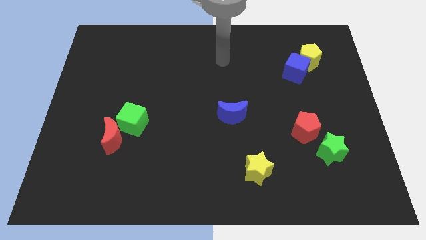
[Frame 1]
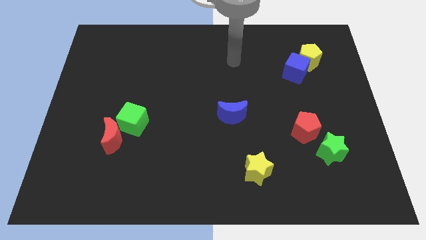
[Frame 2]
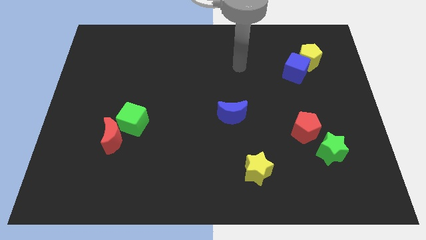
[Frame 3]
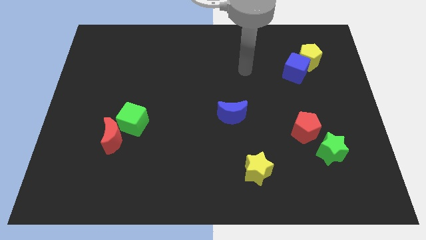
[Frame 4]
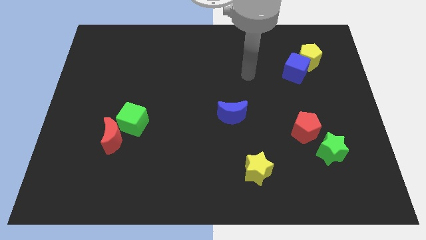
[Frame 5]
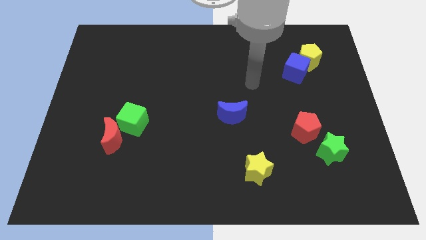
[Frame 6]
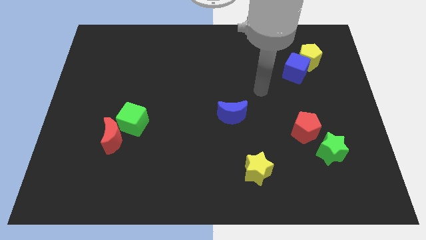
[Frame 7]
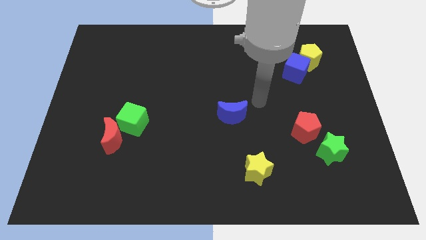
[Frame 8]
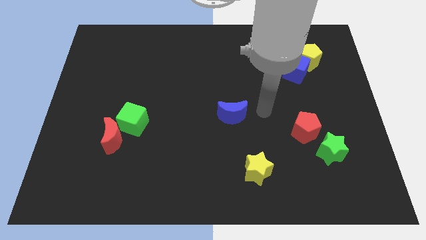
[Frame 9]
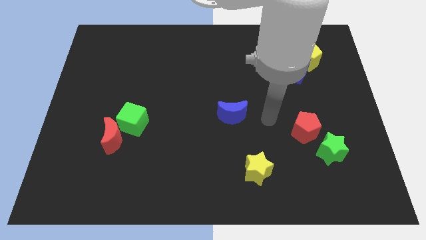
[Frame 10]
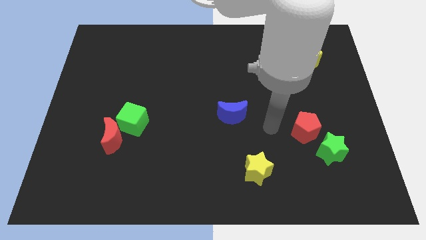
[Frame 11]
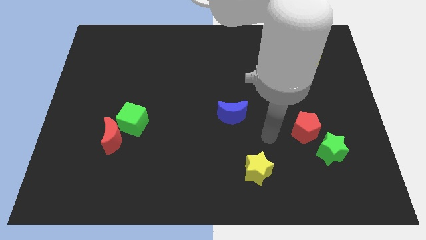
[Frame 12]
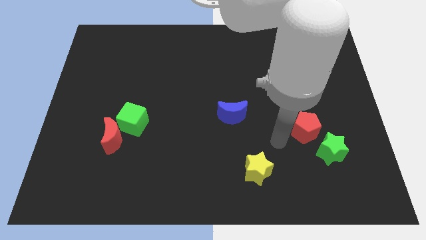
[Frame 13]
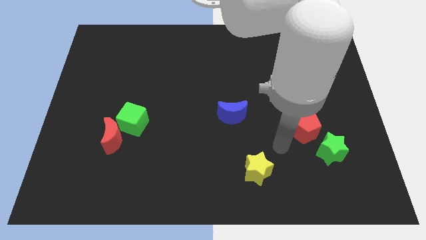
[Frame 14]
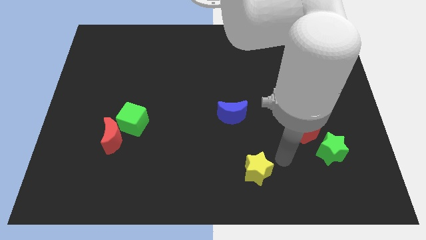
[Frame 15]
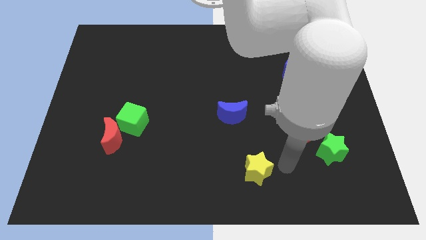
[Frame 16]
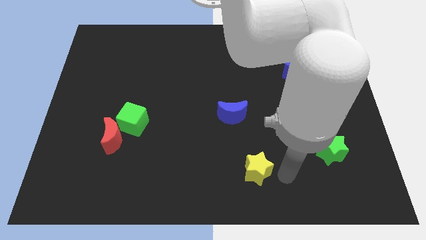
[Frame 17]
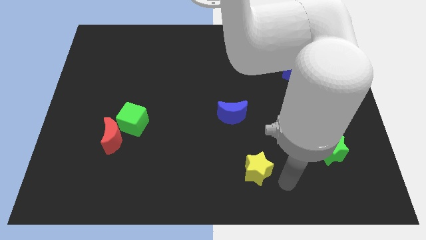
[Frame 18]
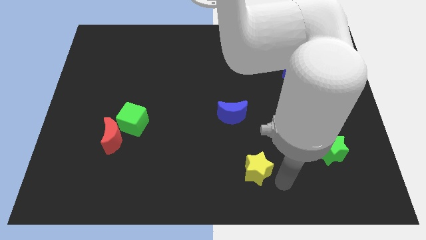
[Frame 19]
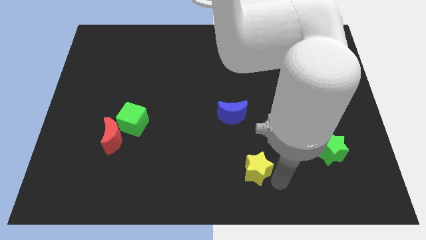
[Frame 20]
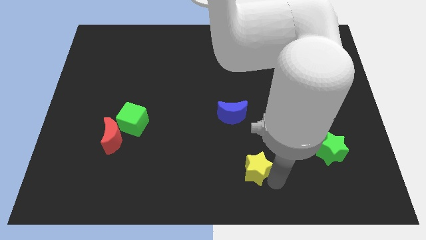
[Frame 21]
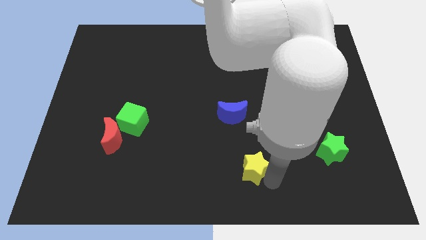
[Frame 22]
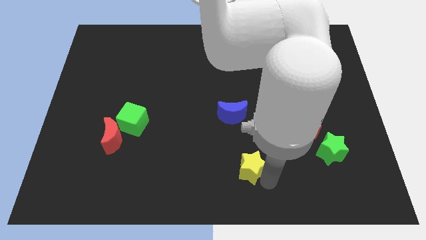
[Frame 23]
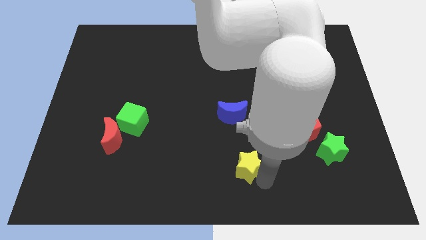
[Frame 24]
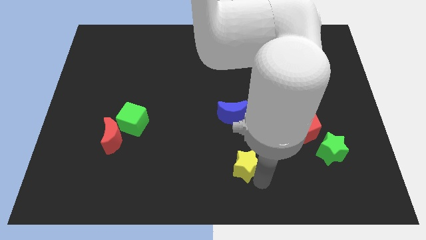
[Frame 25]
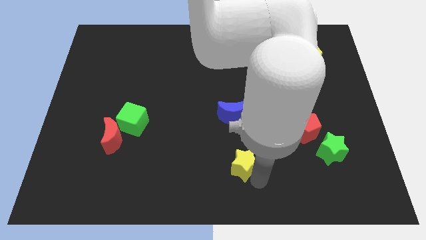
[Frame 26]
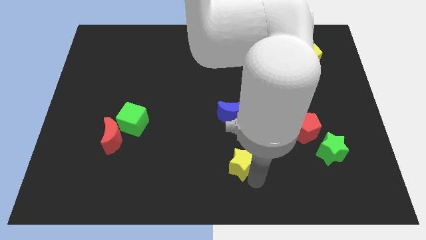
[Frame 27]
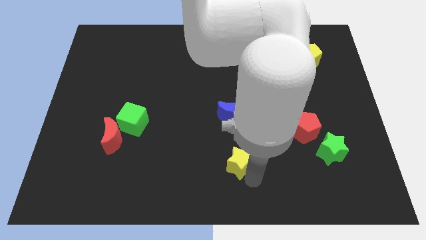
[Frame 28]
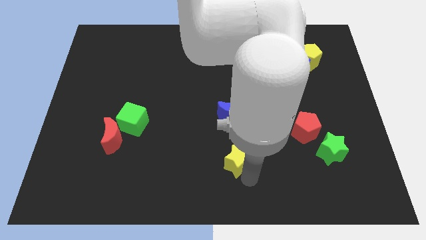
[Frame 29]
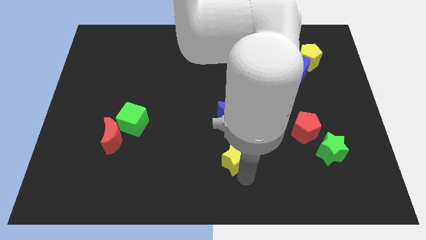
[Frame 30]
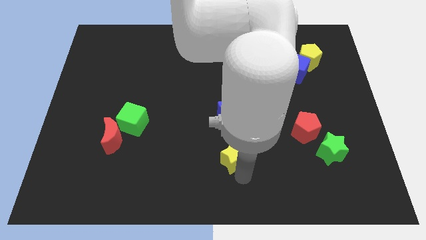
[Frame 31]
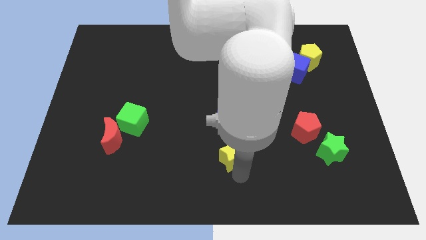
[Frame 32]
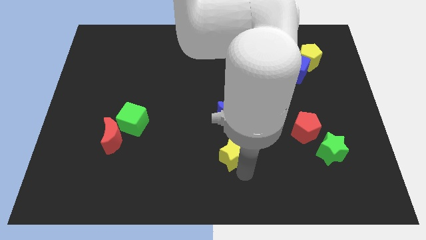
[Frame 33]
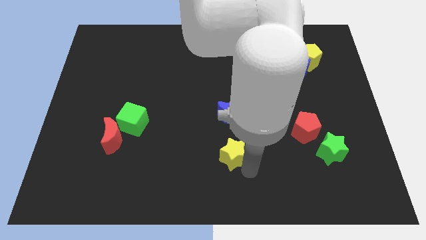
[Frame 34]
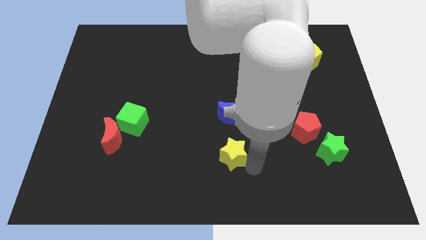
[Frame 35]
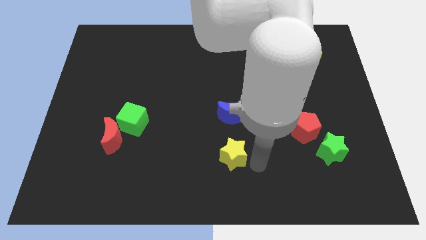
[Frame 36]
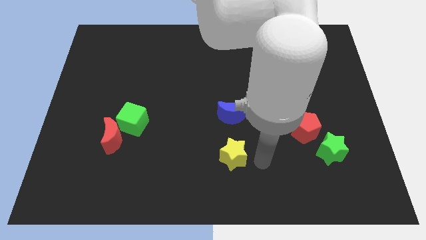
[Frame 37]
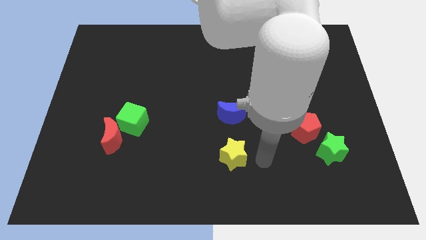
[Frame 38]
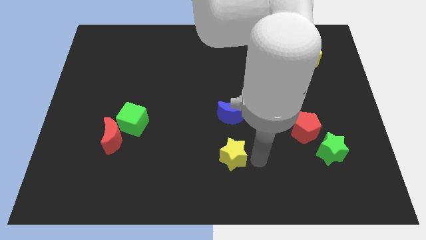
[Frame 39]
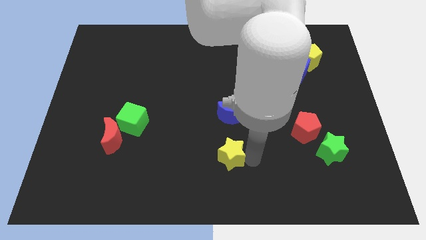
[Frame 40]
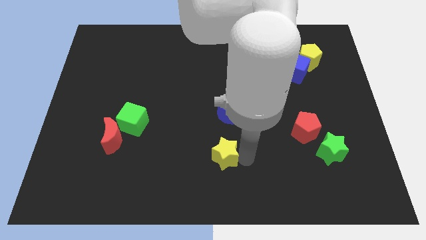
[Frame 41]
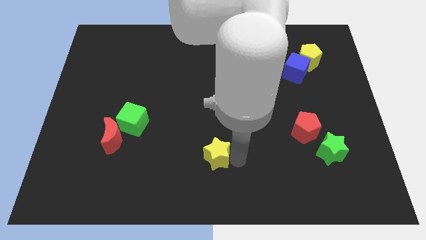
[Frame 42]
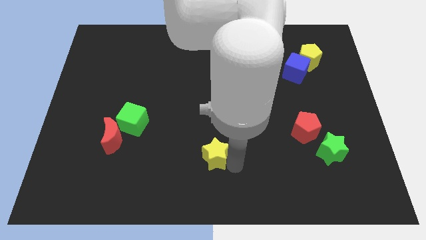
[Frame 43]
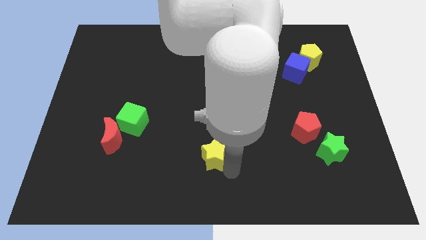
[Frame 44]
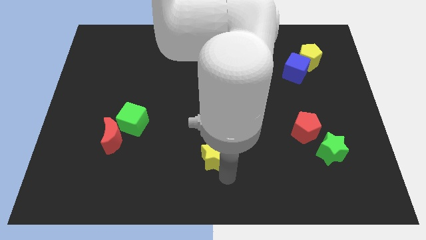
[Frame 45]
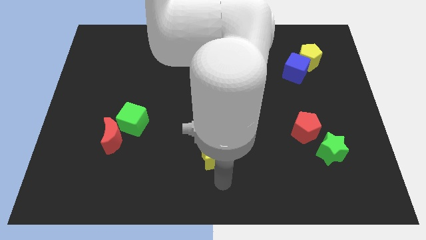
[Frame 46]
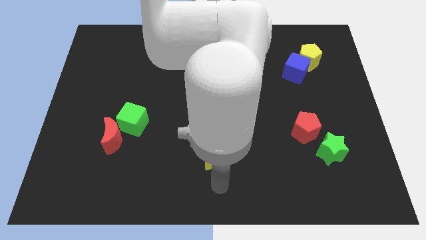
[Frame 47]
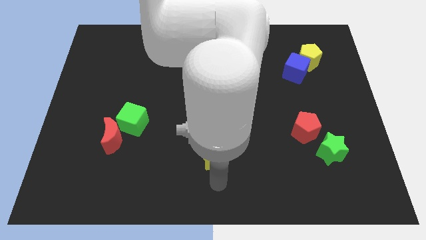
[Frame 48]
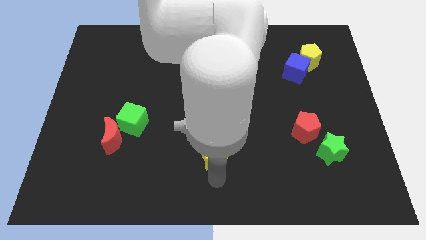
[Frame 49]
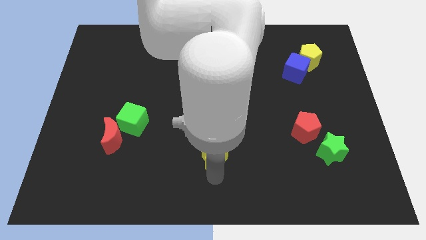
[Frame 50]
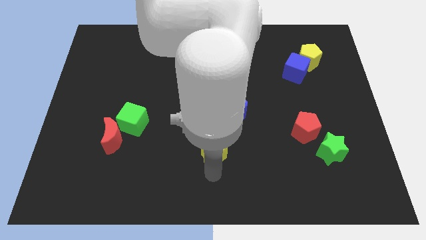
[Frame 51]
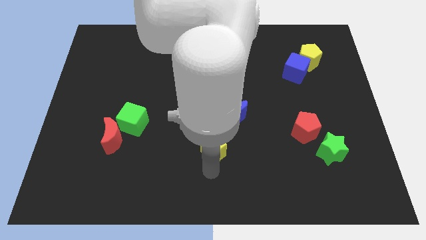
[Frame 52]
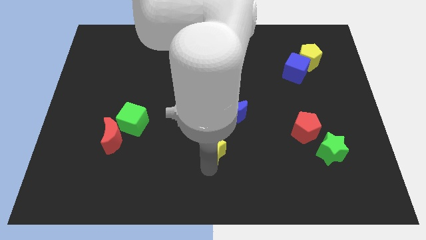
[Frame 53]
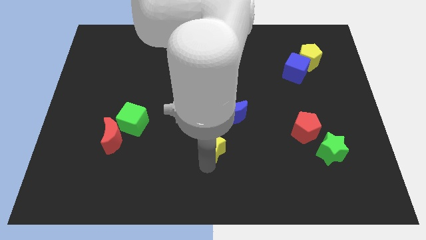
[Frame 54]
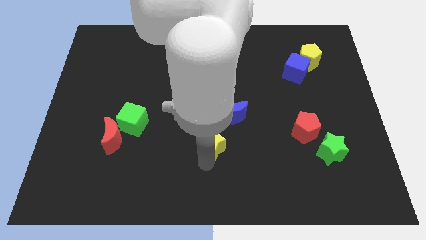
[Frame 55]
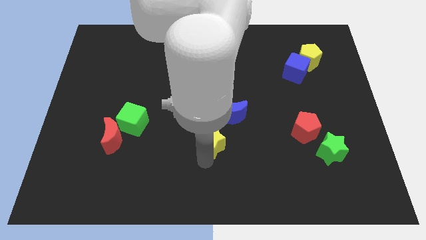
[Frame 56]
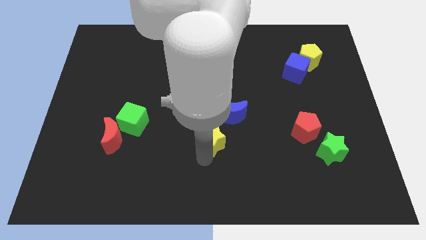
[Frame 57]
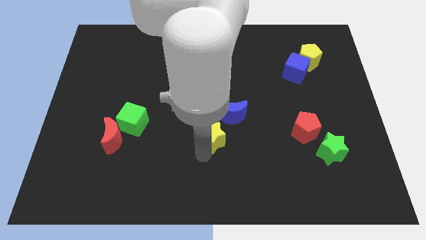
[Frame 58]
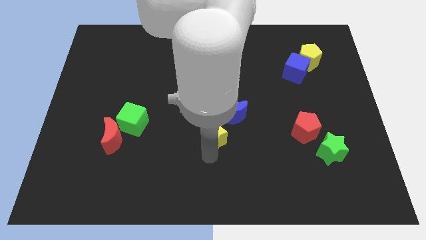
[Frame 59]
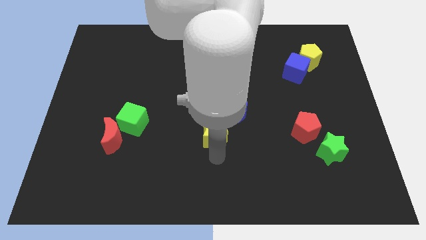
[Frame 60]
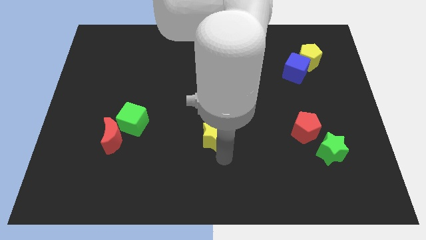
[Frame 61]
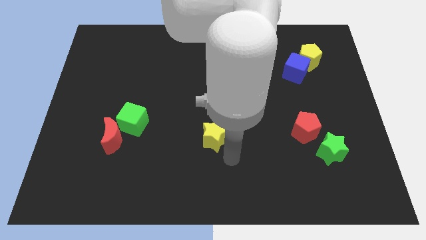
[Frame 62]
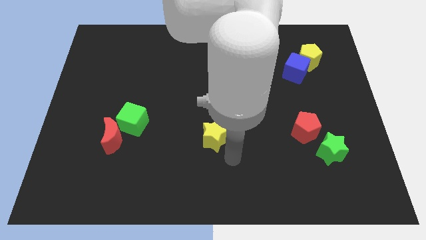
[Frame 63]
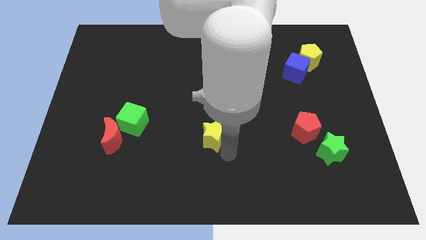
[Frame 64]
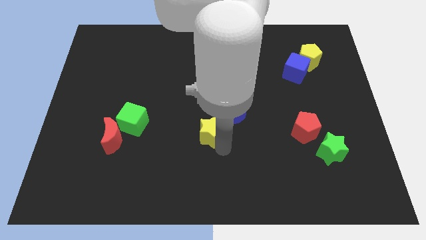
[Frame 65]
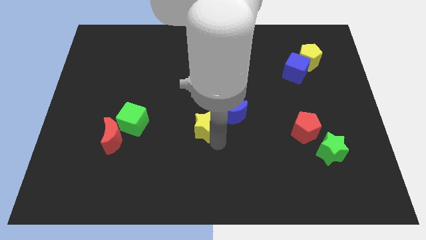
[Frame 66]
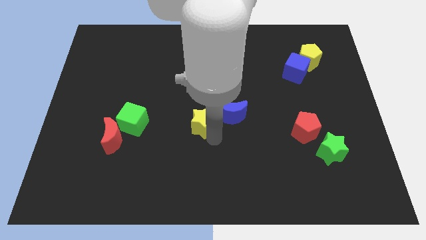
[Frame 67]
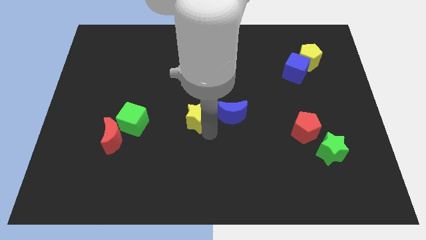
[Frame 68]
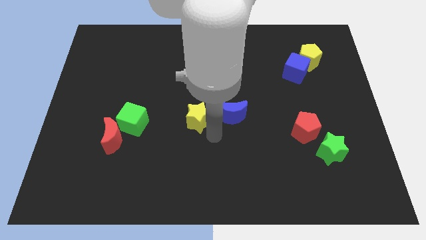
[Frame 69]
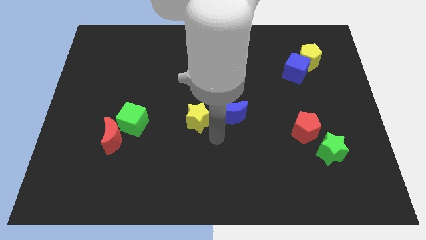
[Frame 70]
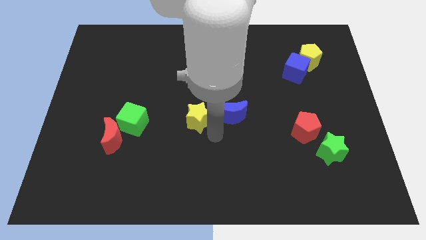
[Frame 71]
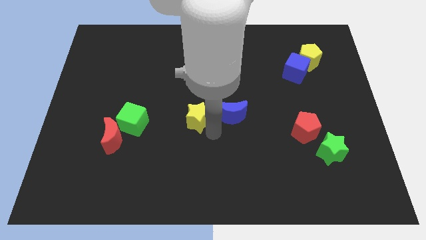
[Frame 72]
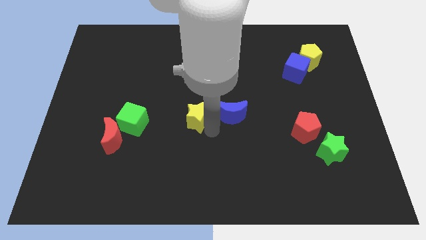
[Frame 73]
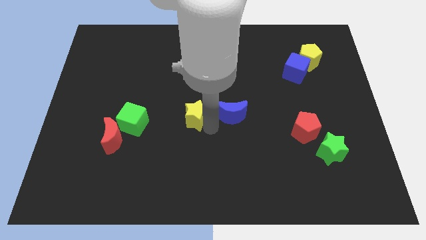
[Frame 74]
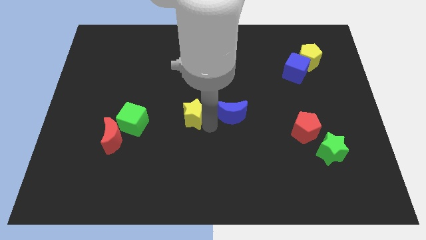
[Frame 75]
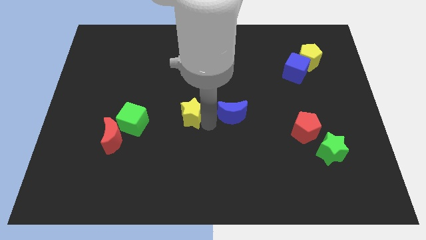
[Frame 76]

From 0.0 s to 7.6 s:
push the yellow star up and left diagonally

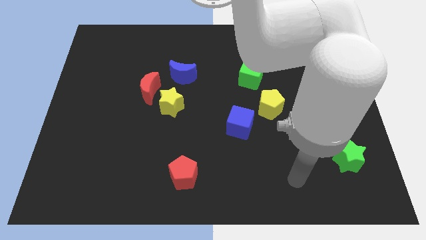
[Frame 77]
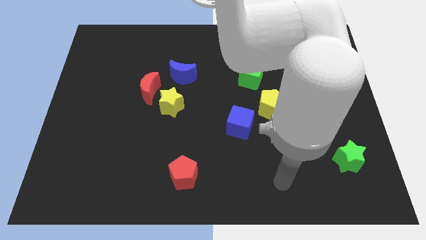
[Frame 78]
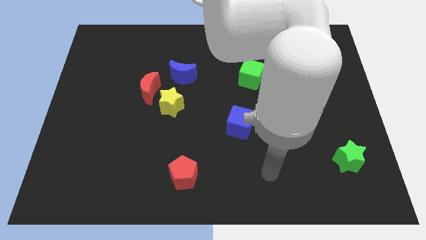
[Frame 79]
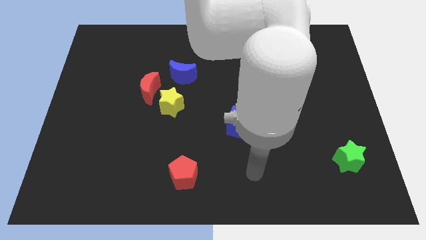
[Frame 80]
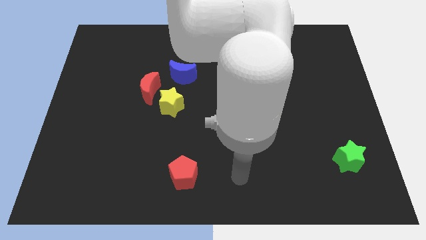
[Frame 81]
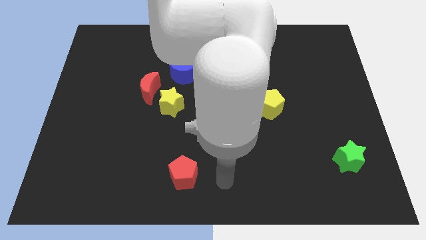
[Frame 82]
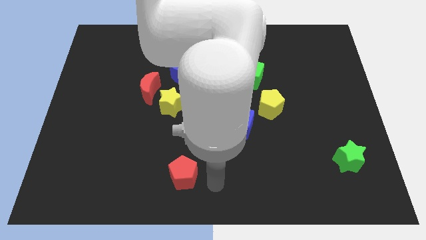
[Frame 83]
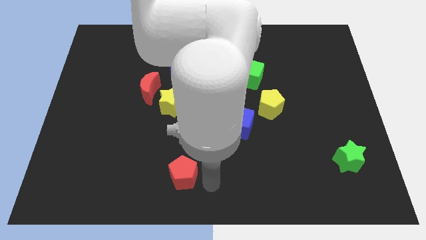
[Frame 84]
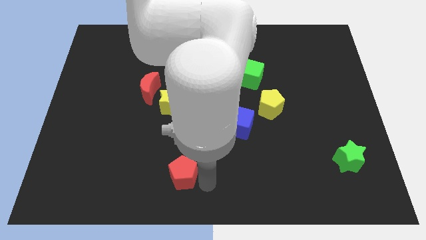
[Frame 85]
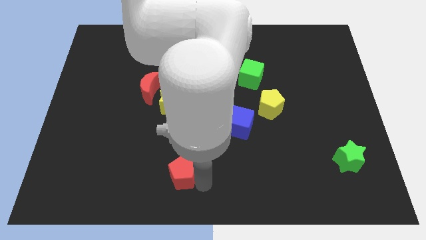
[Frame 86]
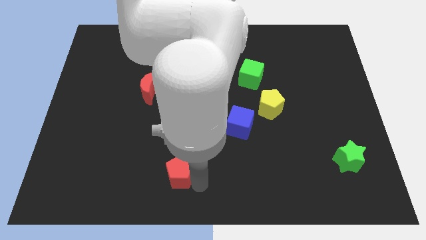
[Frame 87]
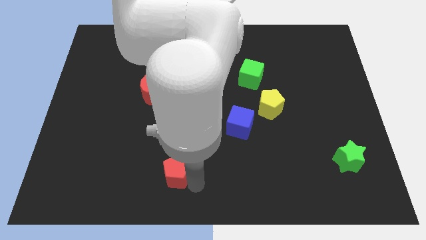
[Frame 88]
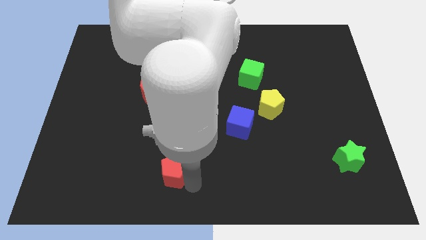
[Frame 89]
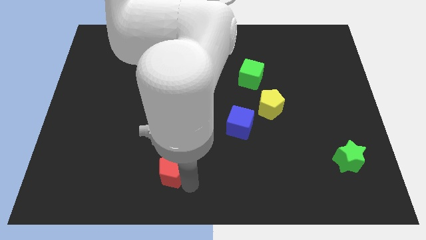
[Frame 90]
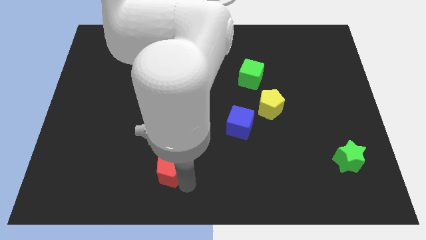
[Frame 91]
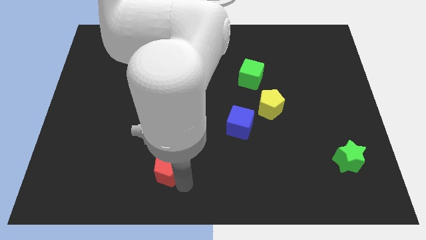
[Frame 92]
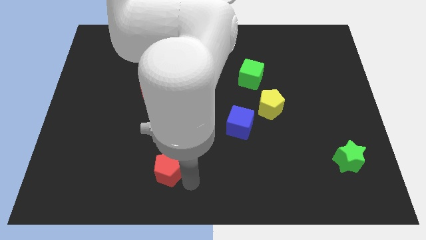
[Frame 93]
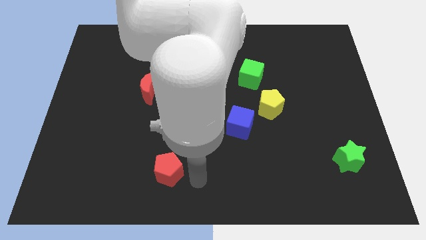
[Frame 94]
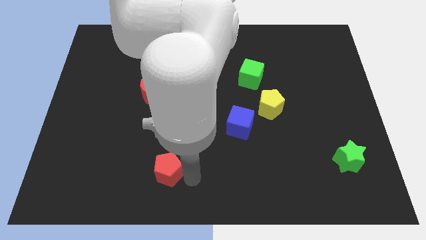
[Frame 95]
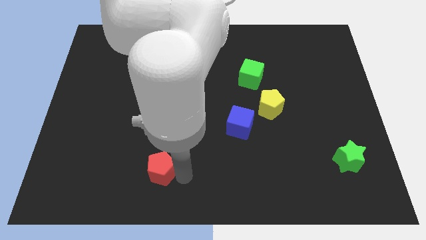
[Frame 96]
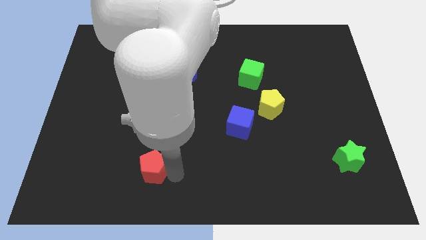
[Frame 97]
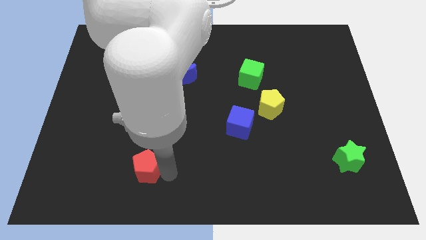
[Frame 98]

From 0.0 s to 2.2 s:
move the red pentagon a bit to the left
